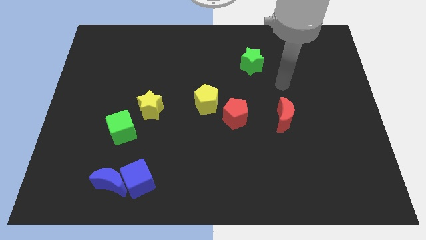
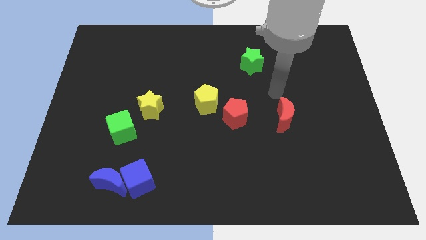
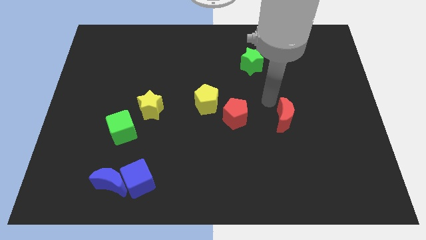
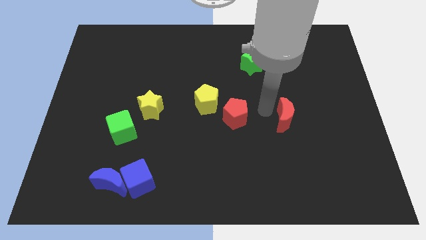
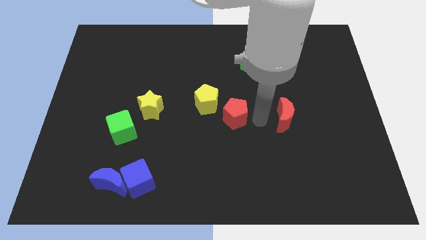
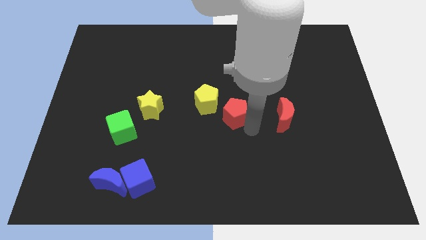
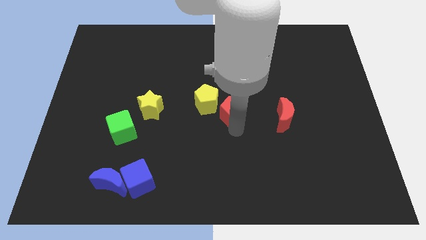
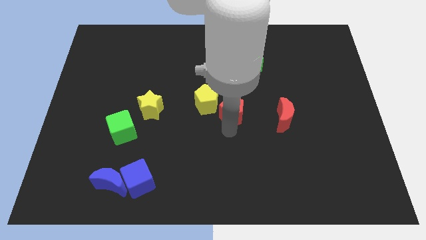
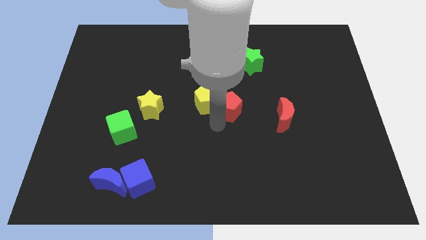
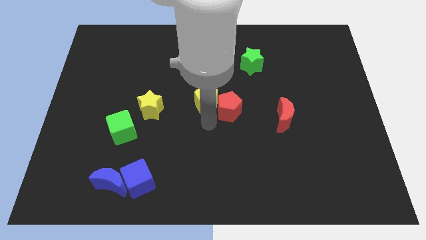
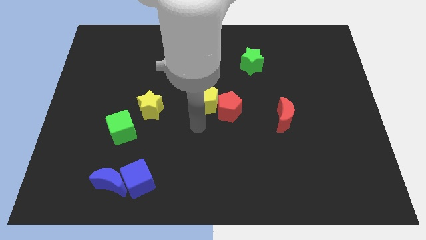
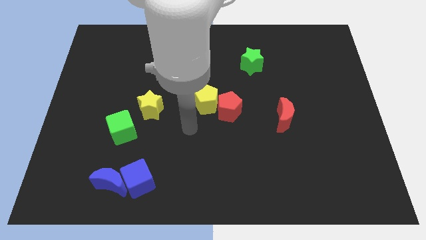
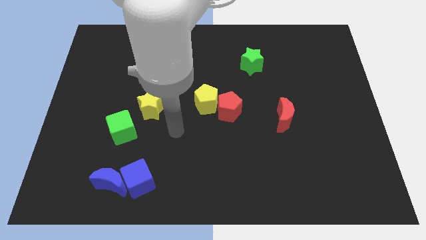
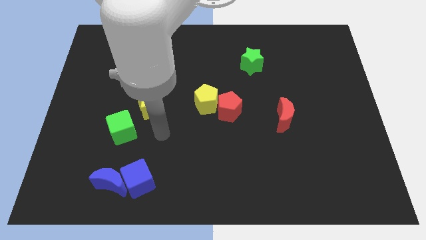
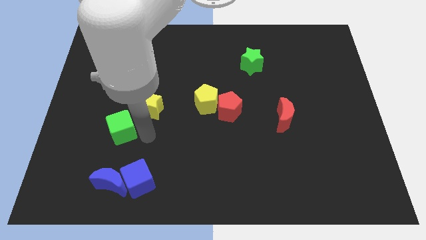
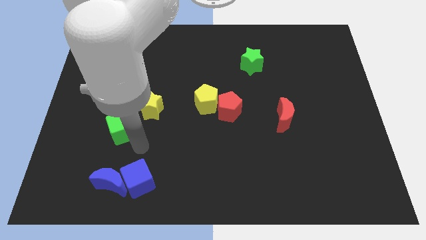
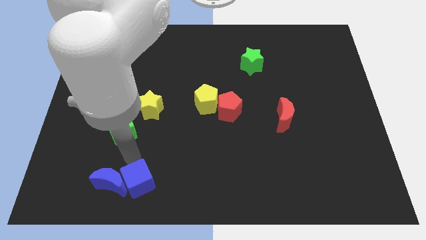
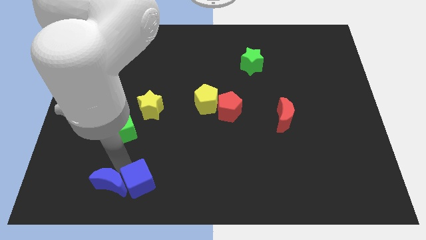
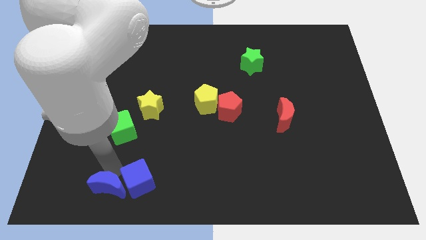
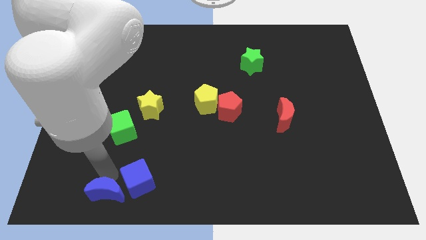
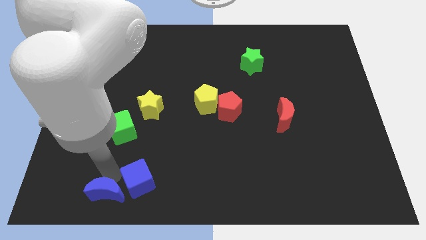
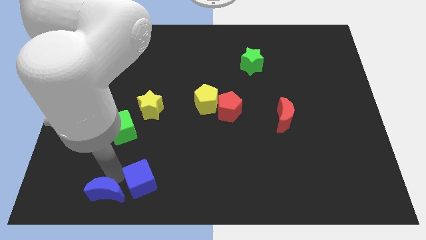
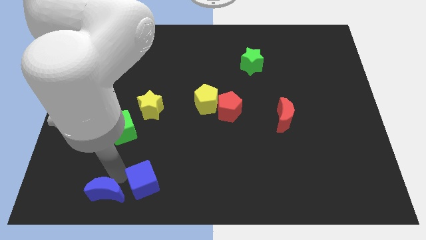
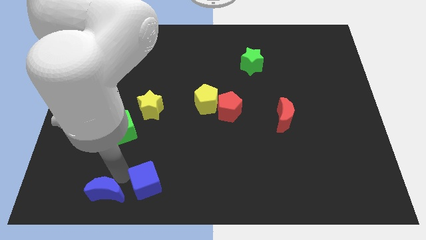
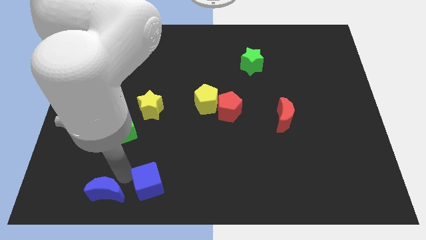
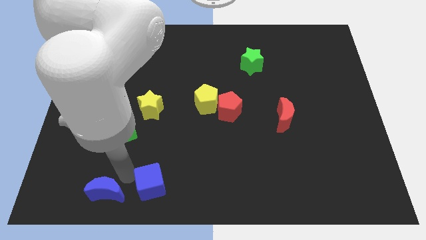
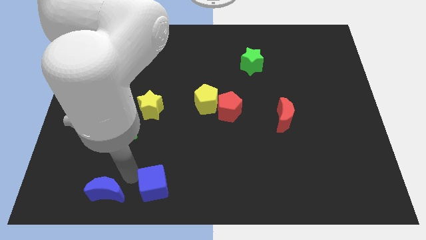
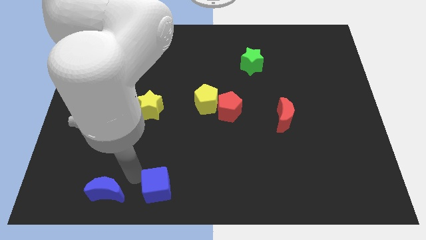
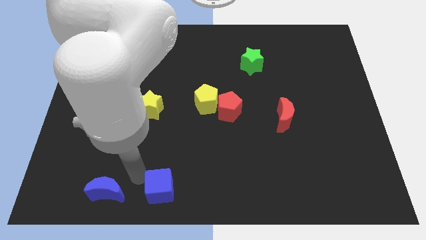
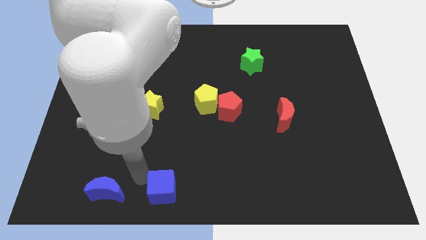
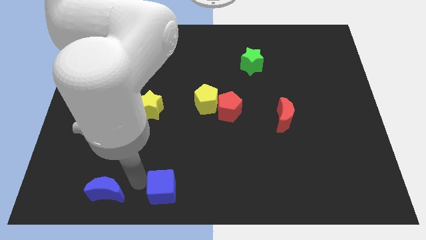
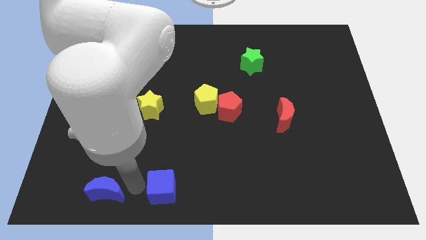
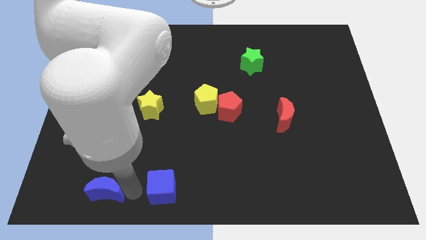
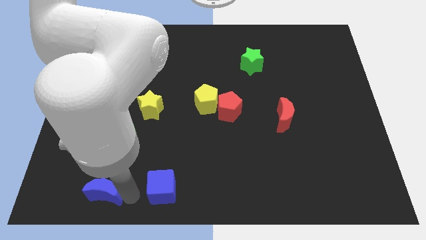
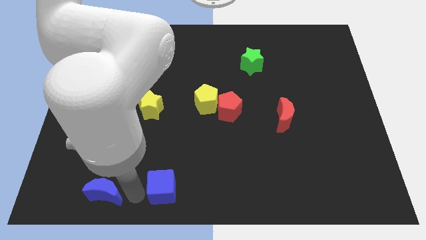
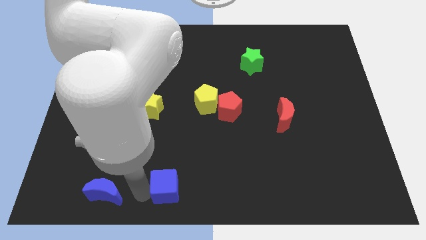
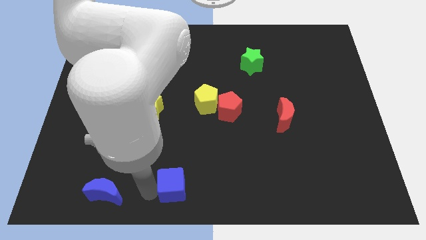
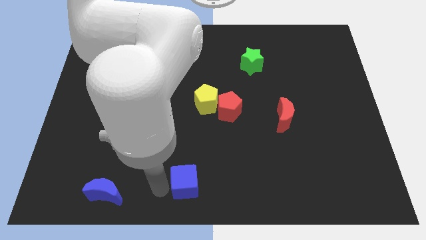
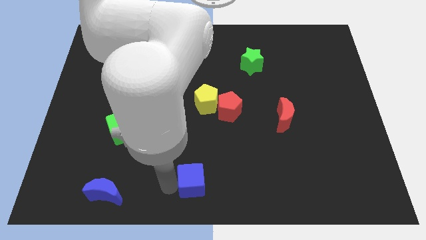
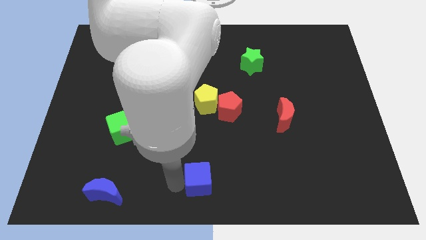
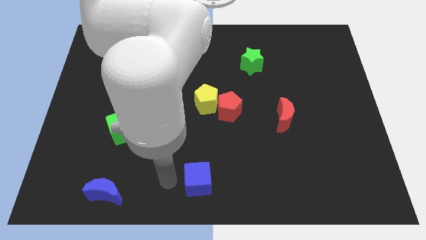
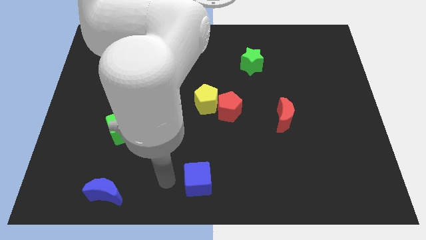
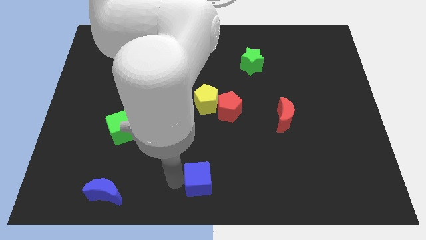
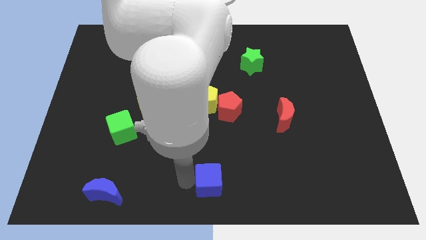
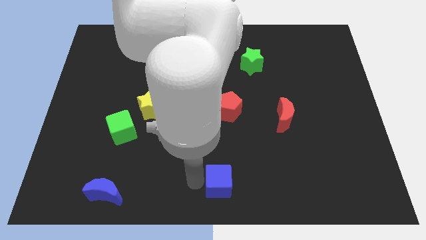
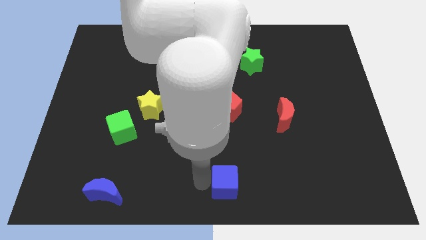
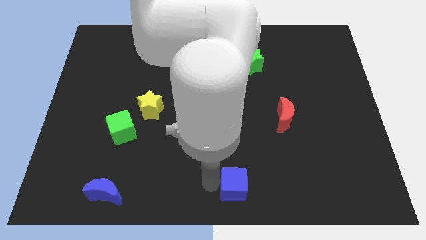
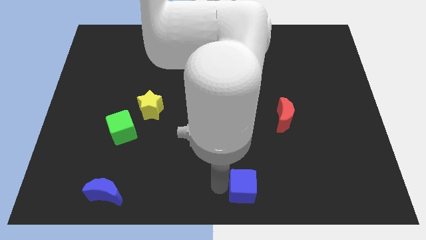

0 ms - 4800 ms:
slide the blue cube right

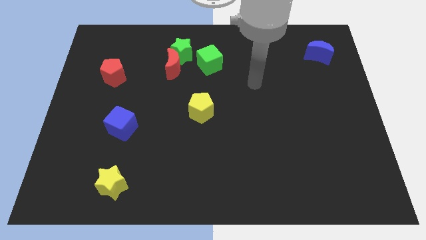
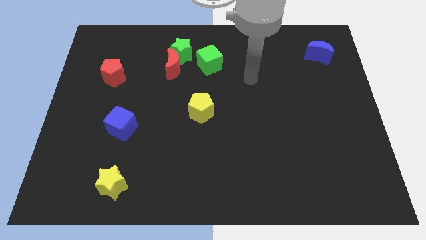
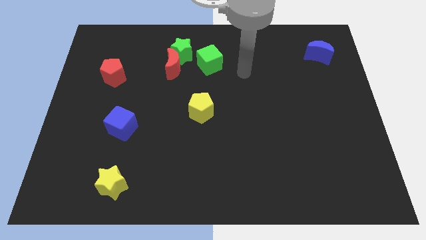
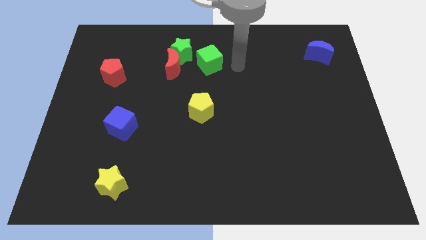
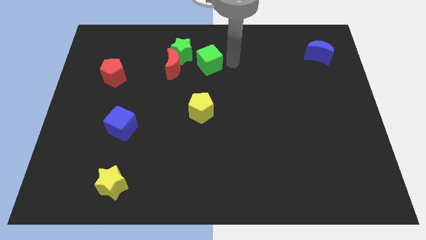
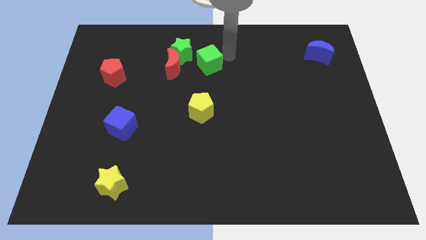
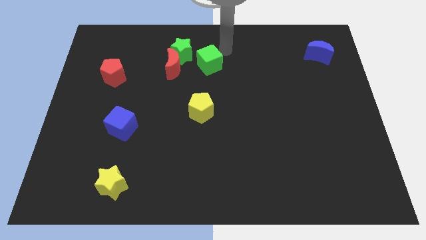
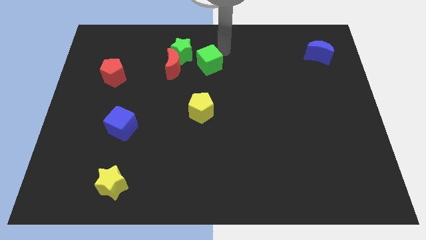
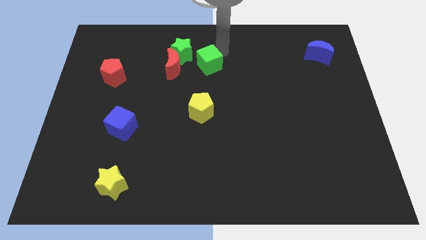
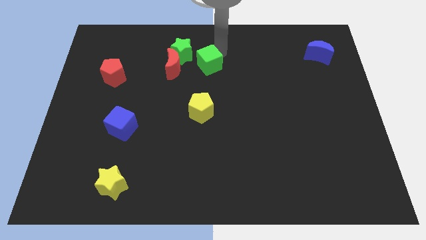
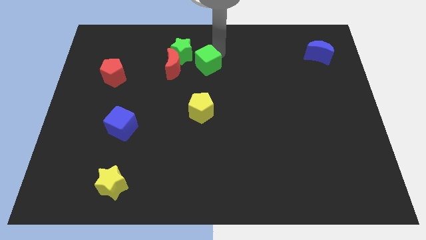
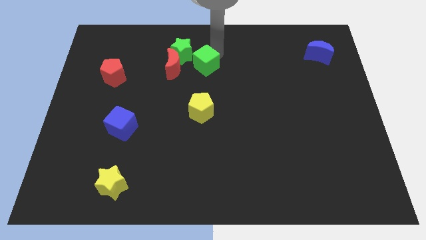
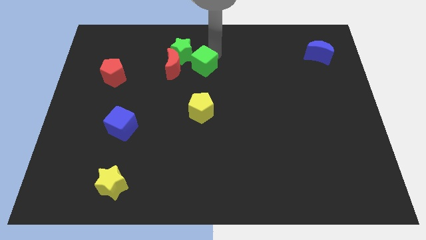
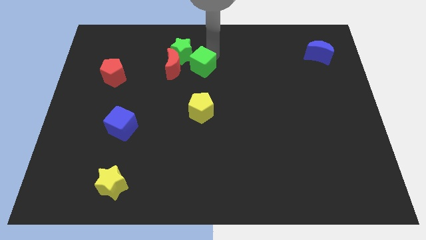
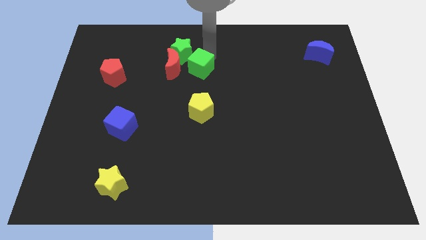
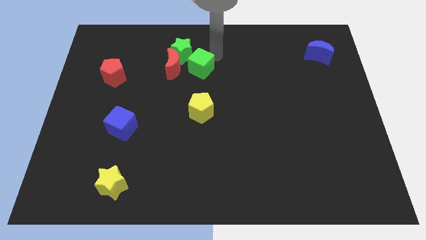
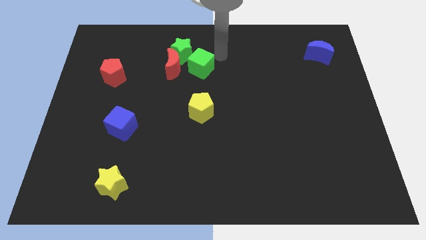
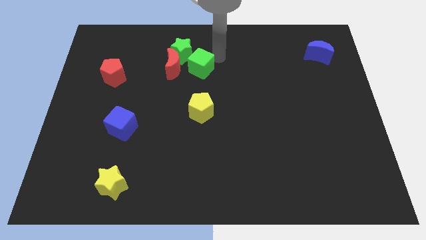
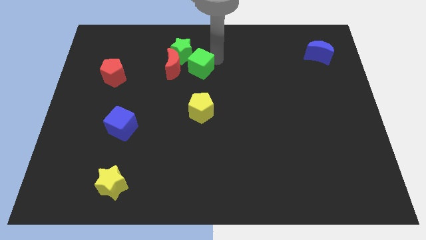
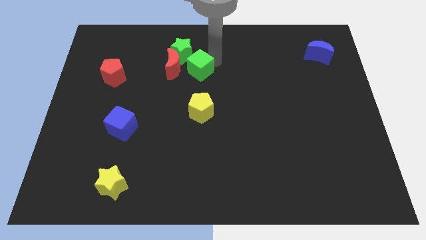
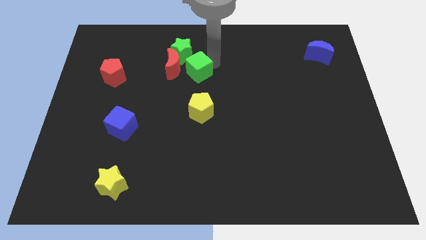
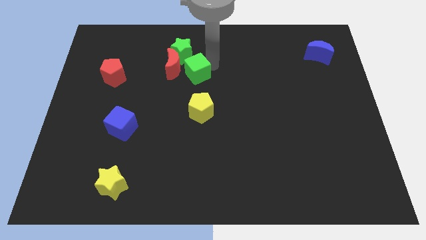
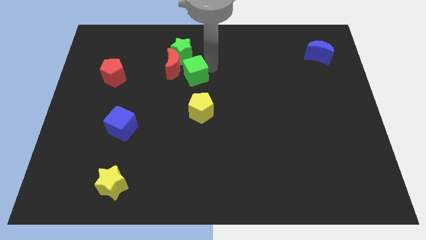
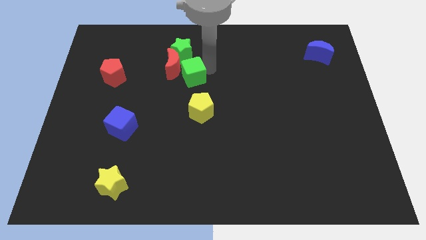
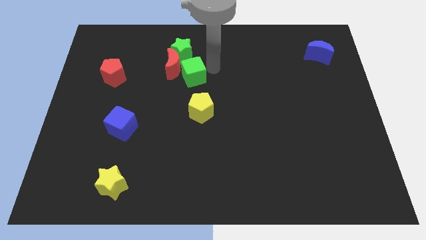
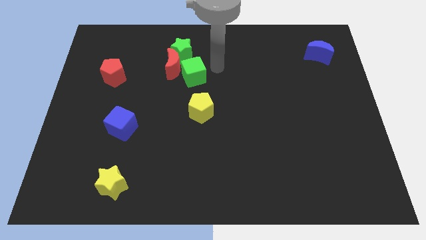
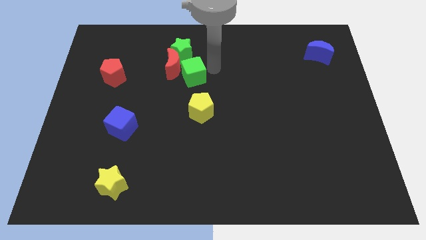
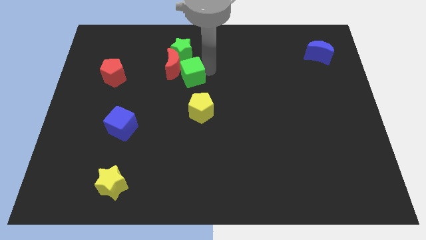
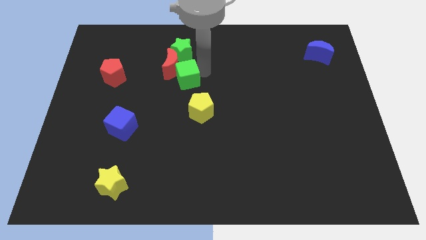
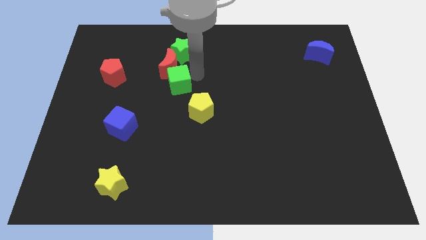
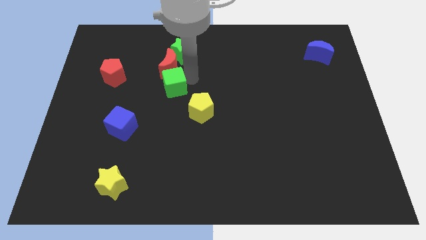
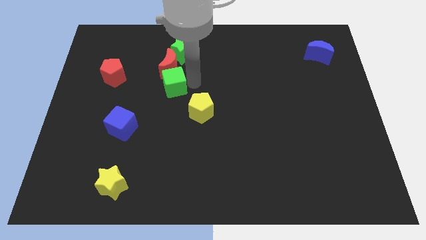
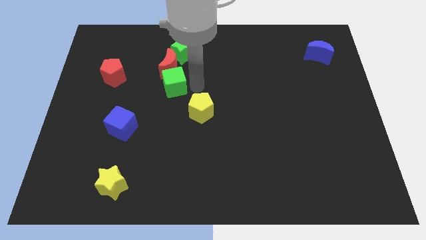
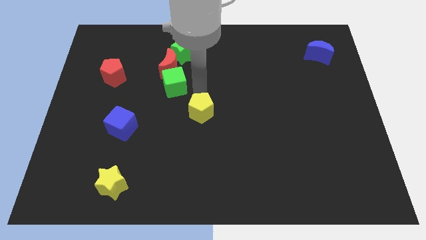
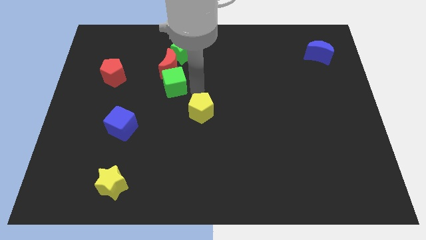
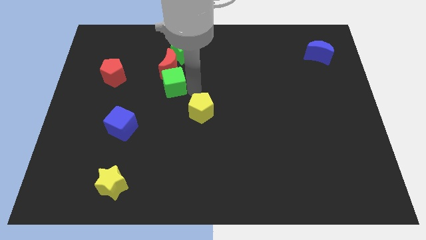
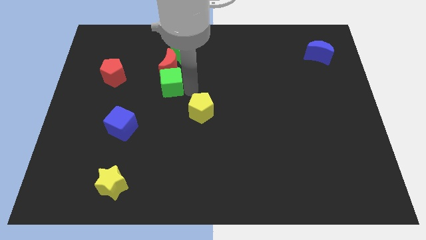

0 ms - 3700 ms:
push the green cube a little to the left
